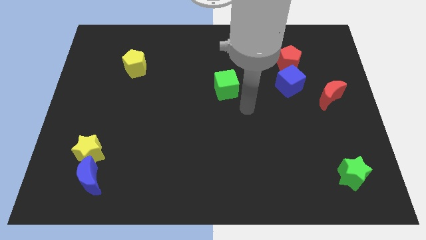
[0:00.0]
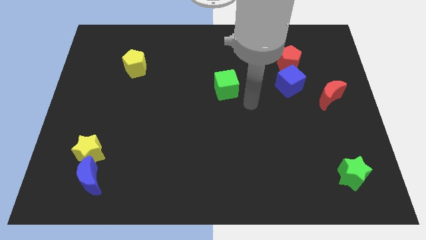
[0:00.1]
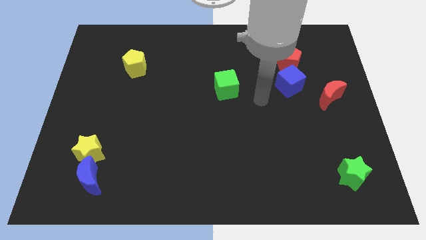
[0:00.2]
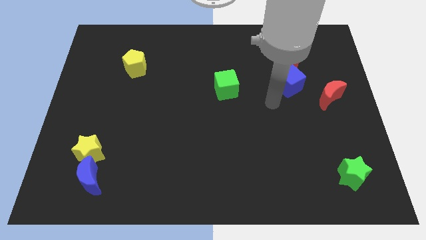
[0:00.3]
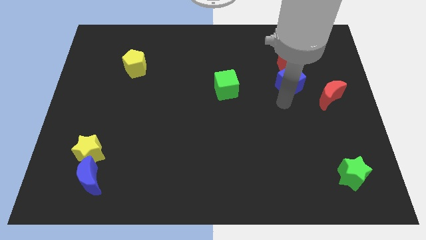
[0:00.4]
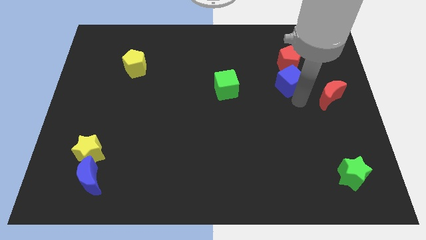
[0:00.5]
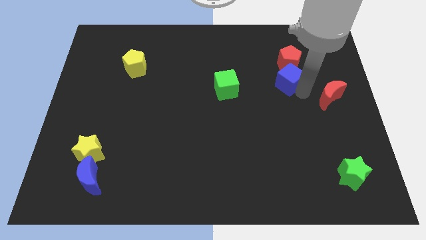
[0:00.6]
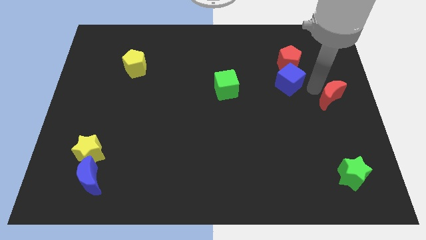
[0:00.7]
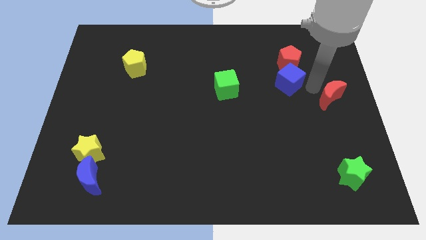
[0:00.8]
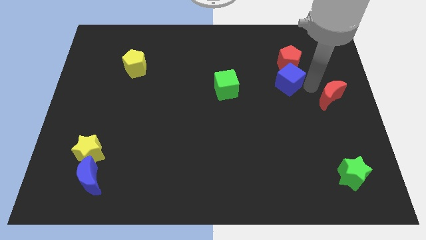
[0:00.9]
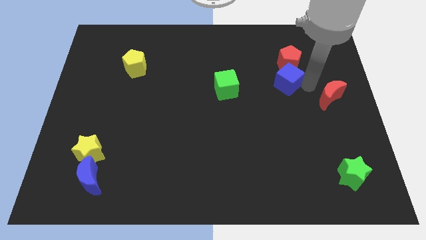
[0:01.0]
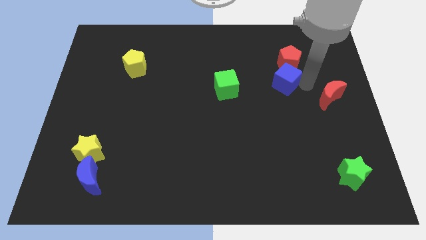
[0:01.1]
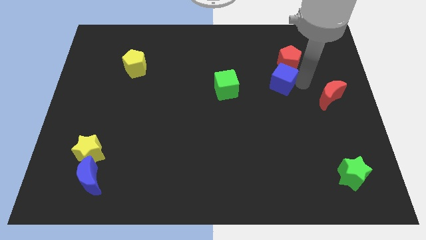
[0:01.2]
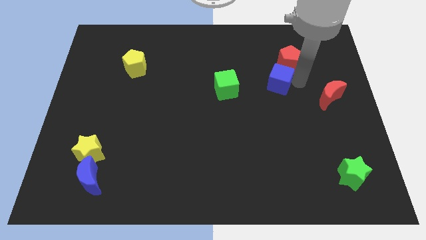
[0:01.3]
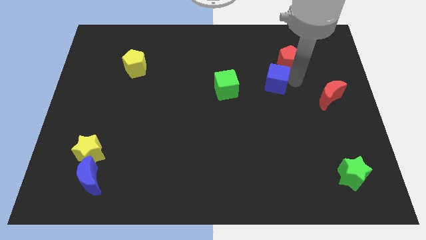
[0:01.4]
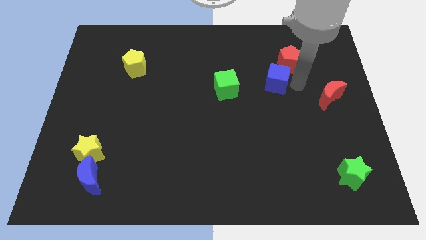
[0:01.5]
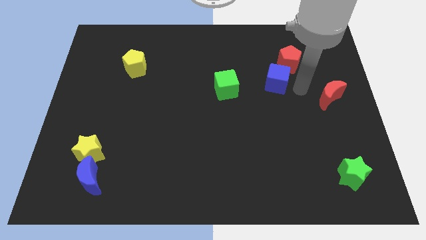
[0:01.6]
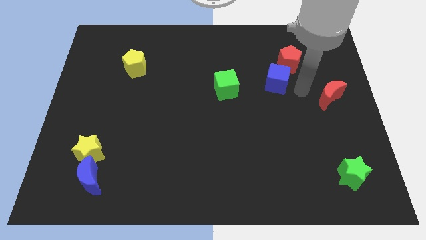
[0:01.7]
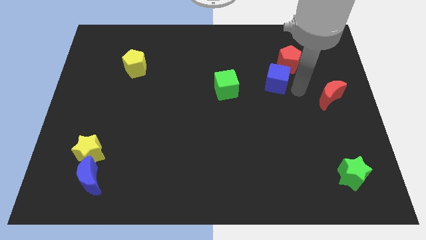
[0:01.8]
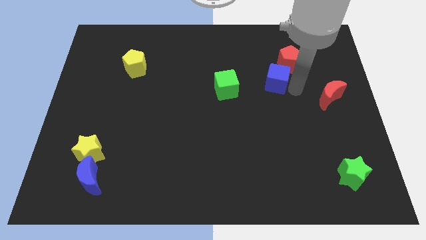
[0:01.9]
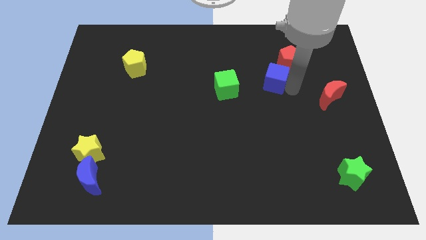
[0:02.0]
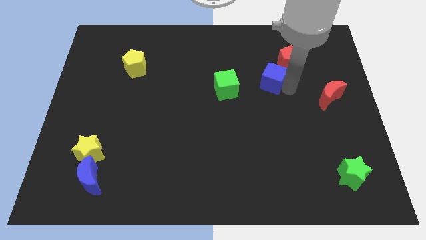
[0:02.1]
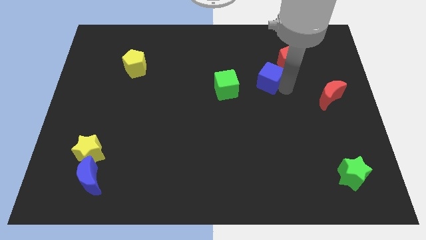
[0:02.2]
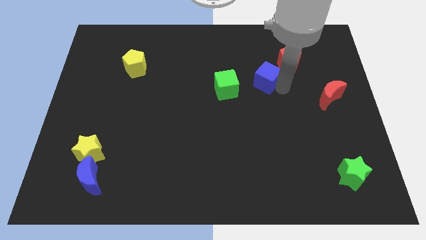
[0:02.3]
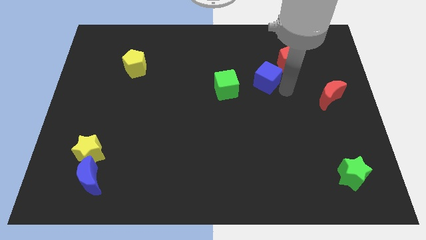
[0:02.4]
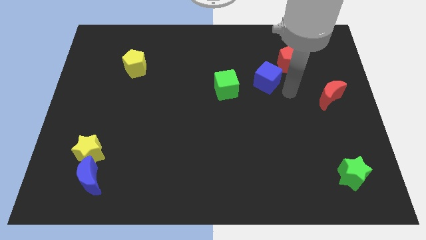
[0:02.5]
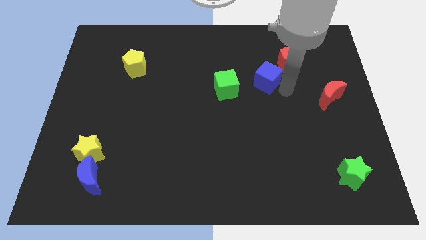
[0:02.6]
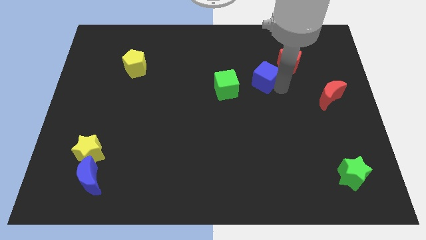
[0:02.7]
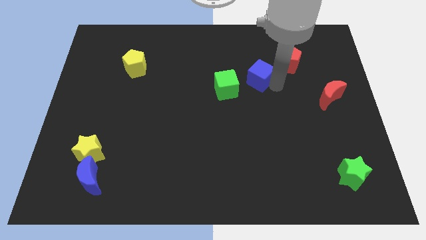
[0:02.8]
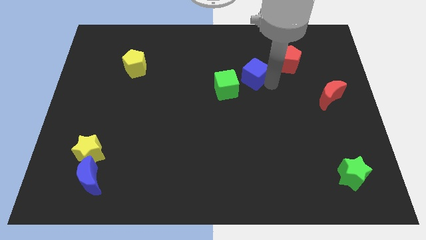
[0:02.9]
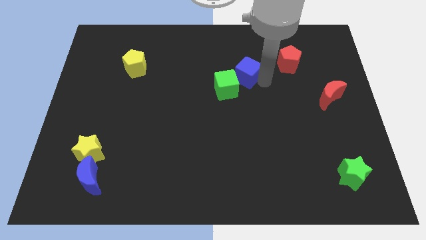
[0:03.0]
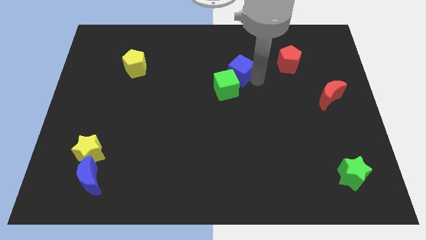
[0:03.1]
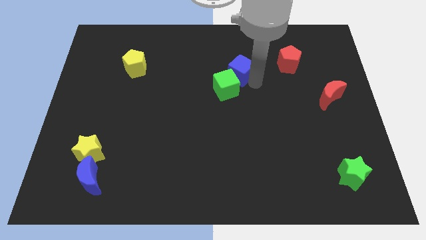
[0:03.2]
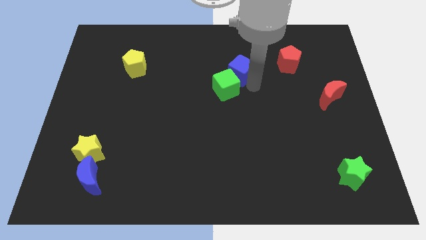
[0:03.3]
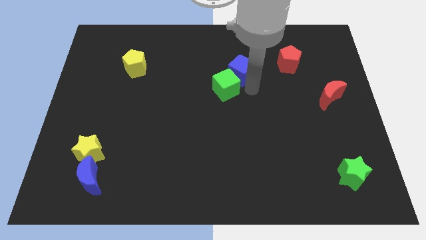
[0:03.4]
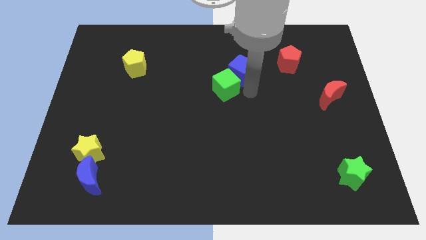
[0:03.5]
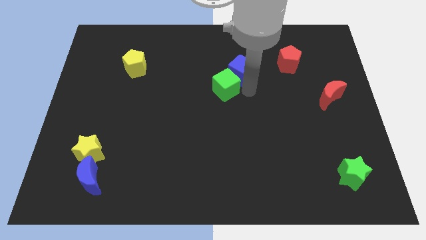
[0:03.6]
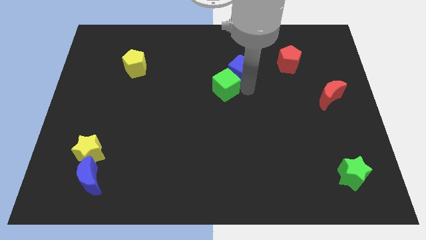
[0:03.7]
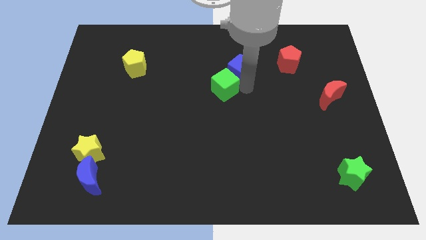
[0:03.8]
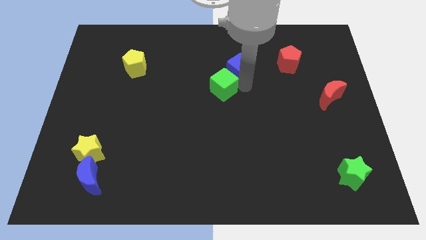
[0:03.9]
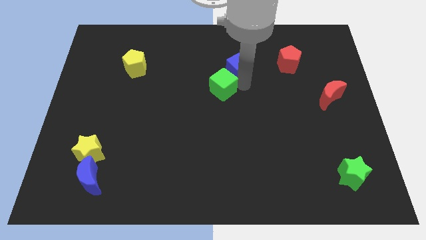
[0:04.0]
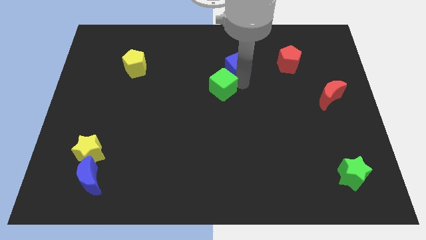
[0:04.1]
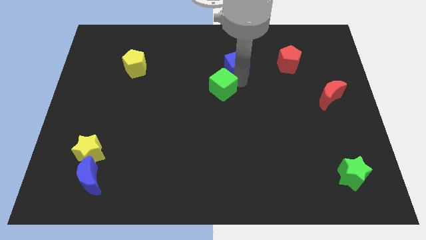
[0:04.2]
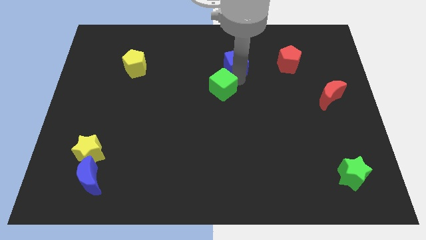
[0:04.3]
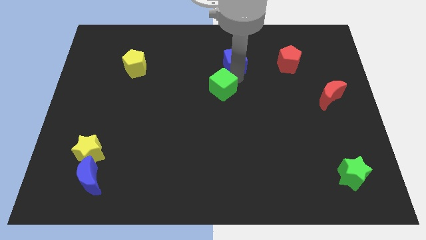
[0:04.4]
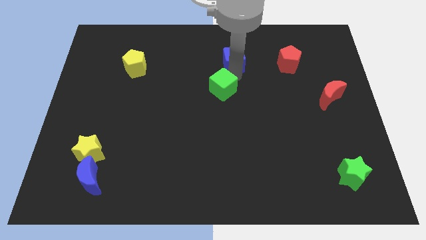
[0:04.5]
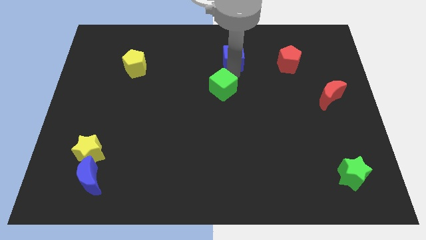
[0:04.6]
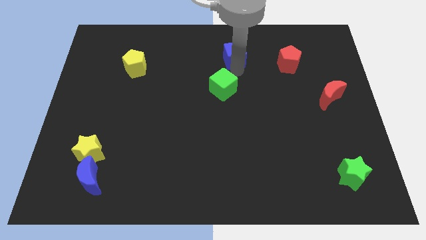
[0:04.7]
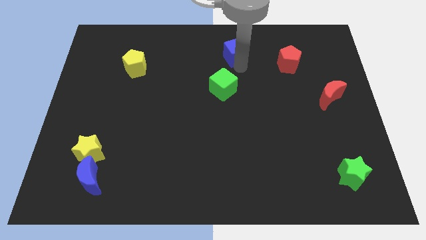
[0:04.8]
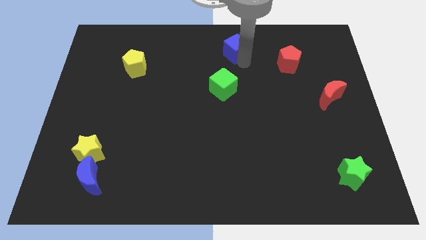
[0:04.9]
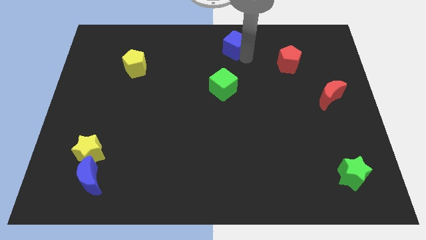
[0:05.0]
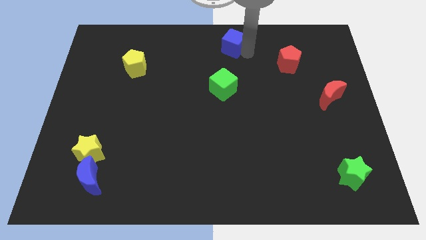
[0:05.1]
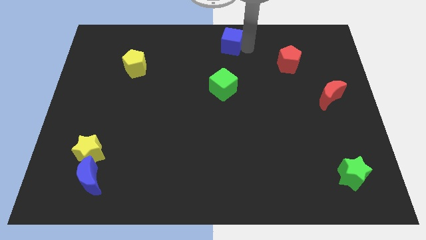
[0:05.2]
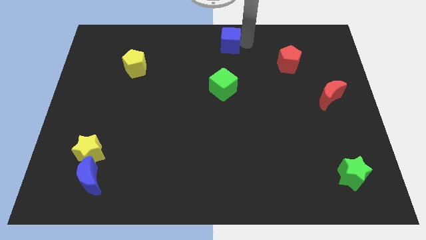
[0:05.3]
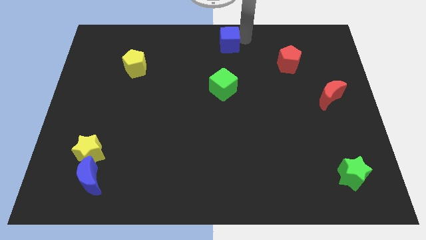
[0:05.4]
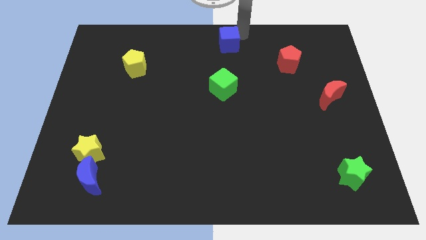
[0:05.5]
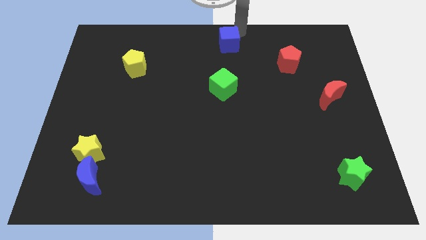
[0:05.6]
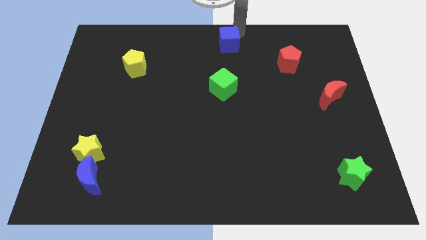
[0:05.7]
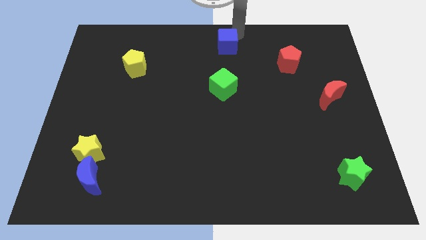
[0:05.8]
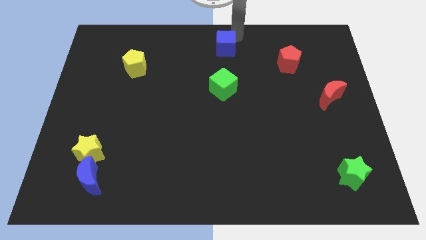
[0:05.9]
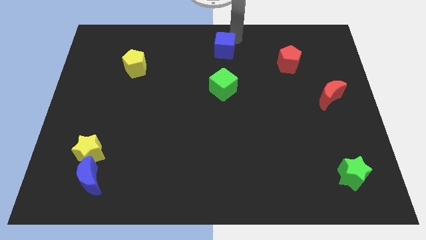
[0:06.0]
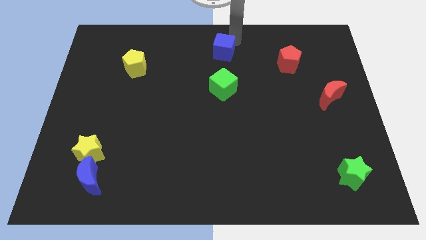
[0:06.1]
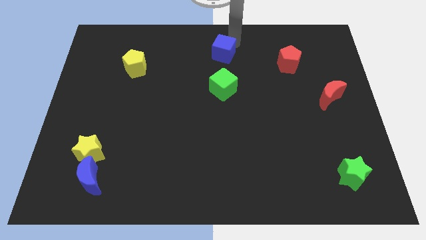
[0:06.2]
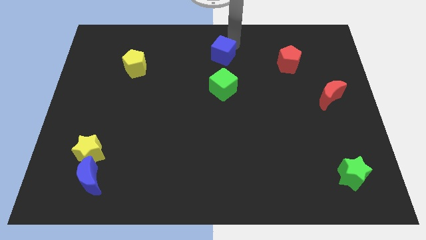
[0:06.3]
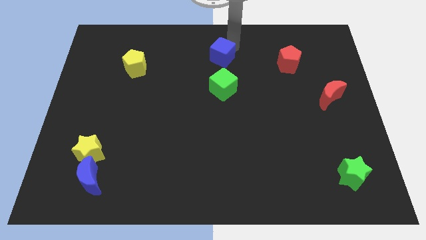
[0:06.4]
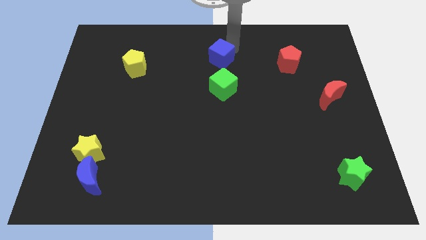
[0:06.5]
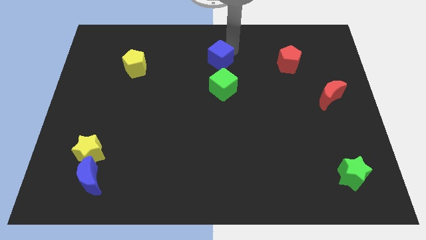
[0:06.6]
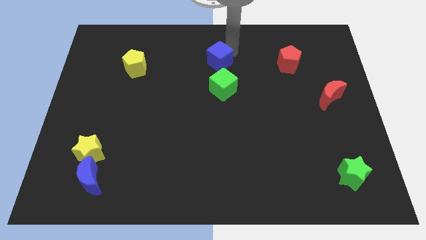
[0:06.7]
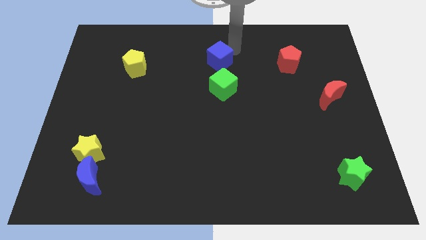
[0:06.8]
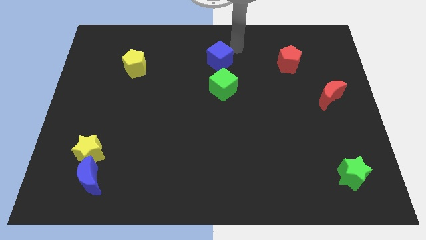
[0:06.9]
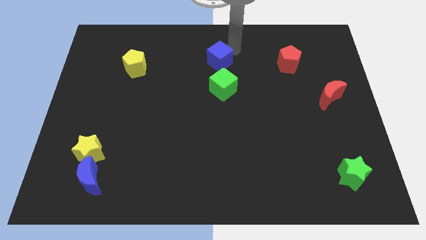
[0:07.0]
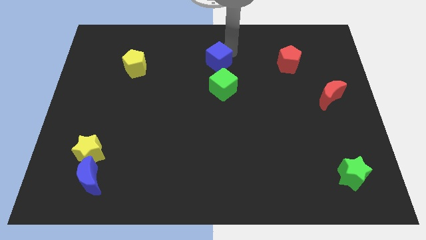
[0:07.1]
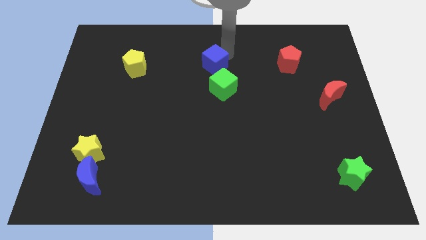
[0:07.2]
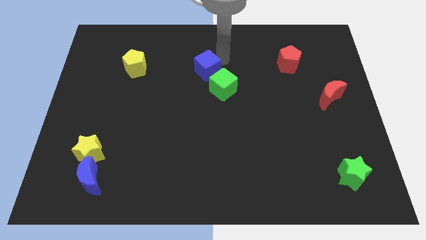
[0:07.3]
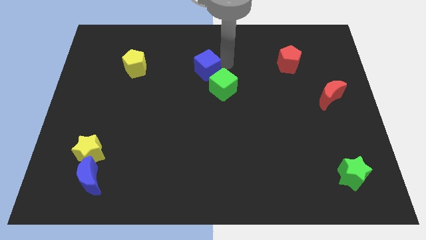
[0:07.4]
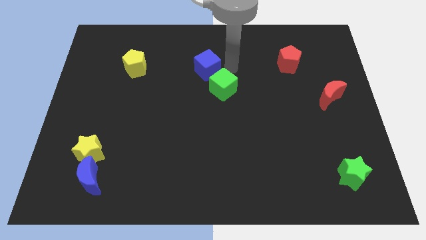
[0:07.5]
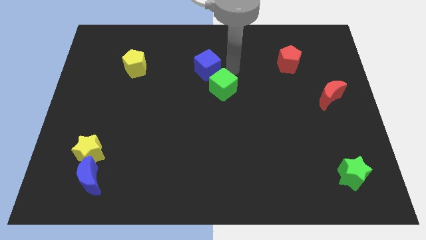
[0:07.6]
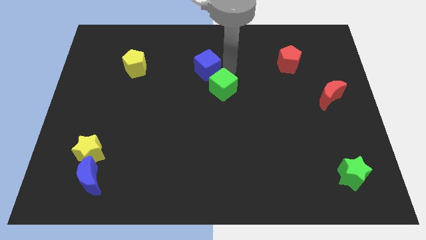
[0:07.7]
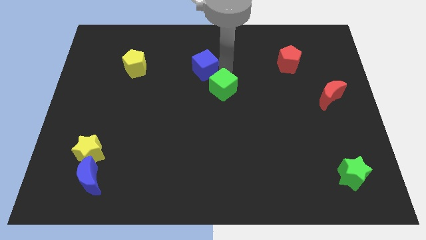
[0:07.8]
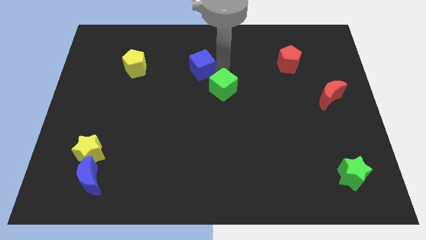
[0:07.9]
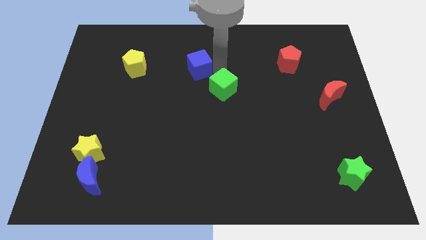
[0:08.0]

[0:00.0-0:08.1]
slide the blue cube to the right side of the yellow pentagon
